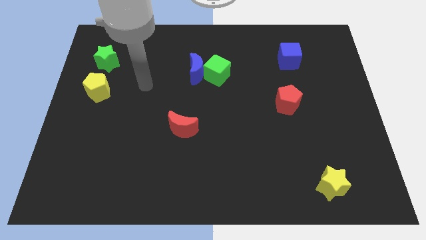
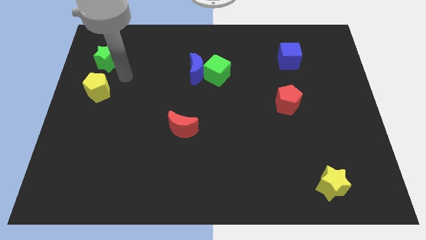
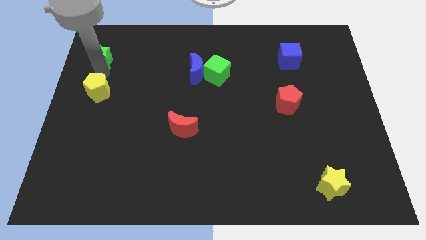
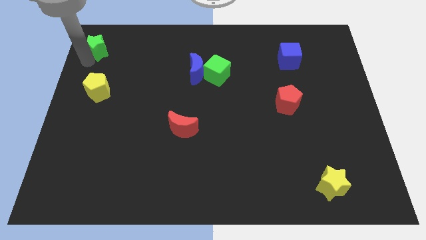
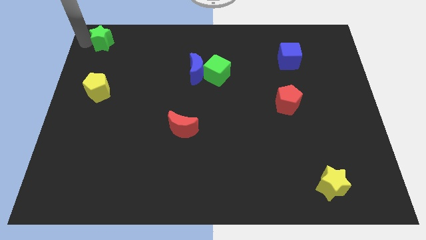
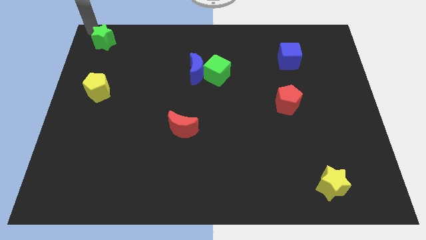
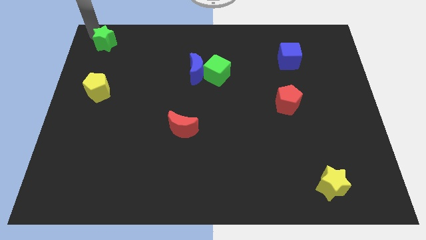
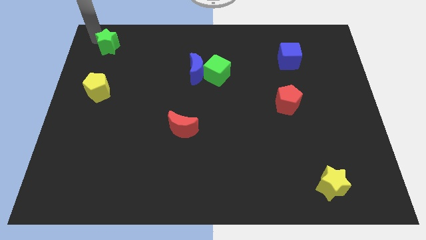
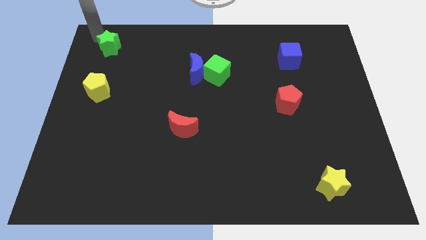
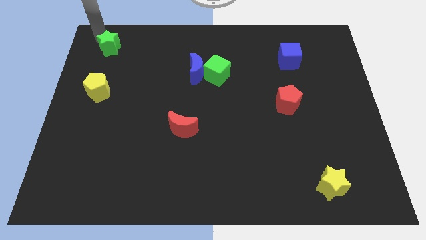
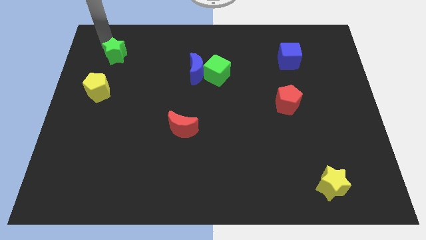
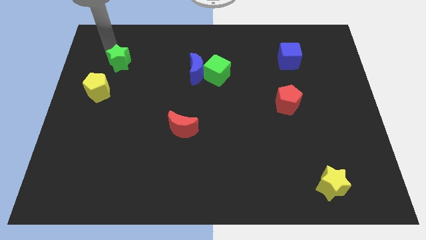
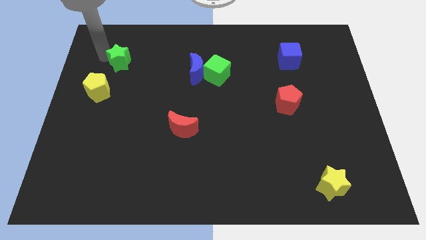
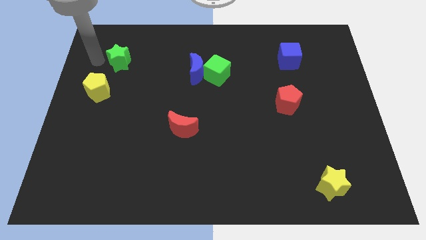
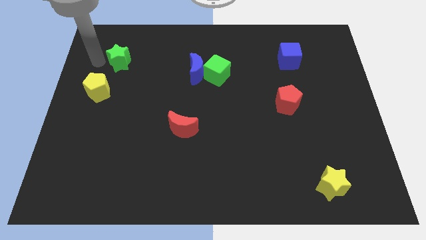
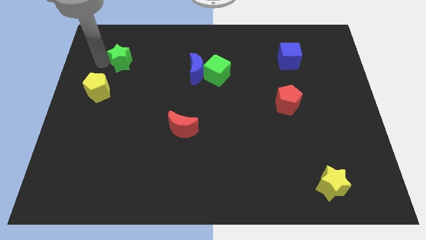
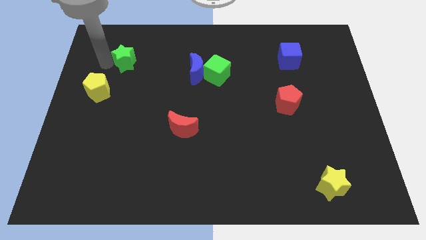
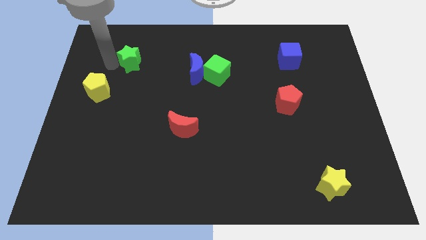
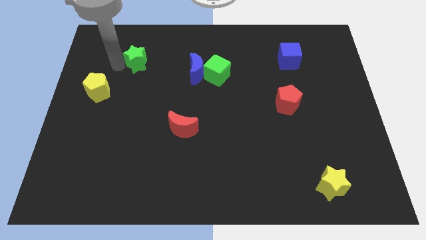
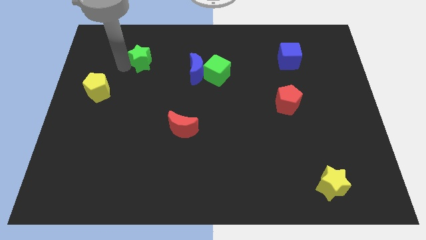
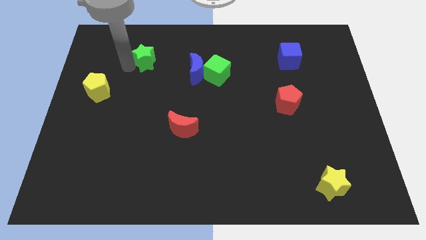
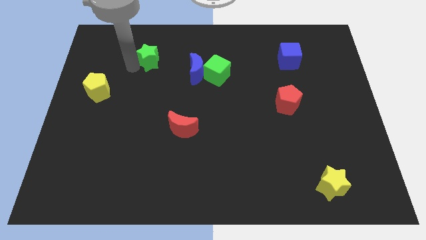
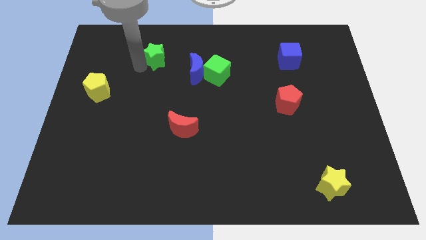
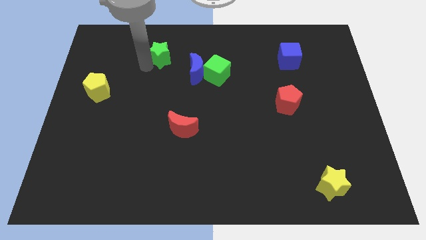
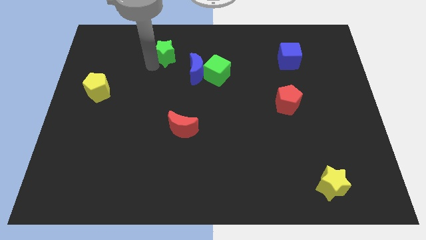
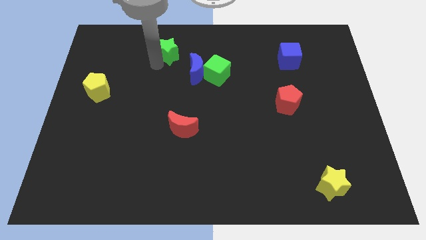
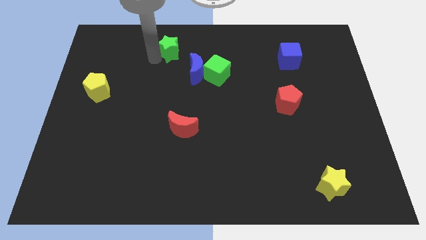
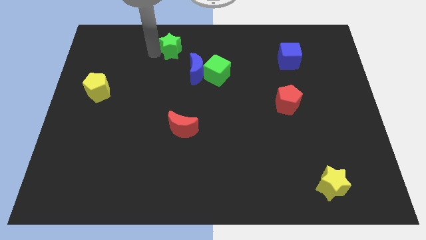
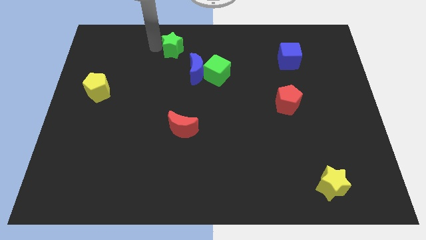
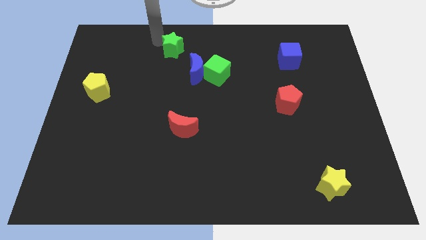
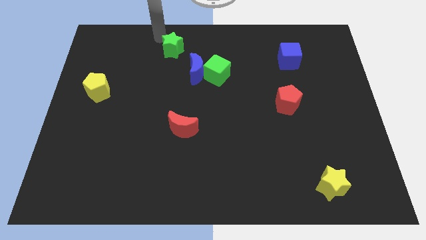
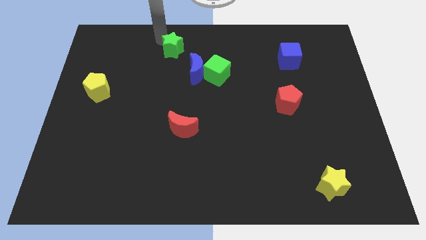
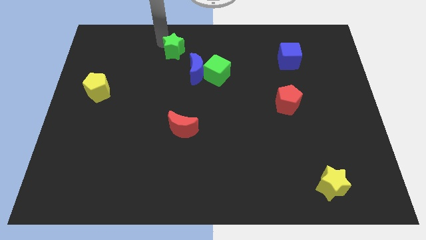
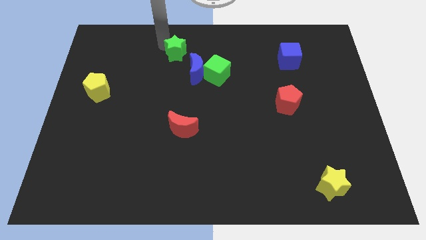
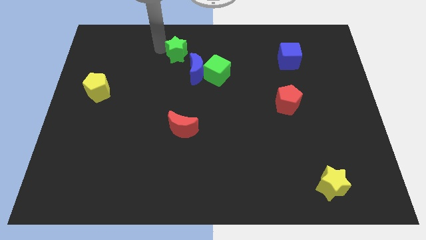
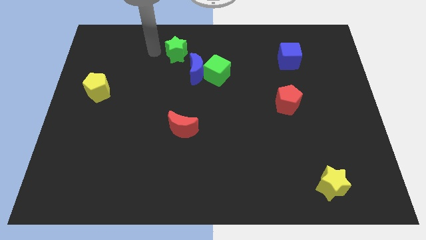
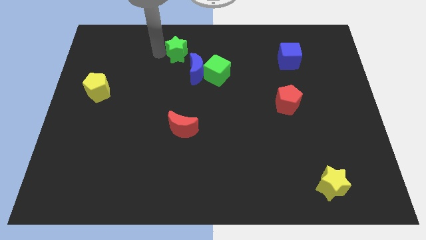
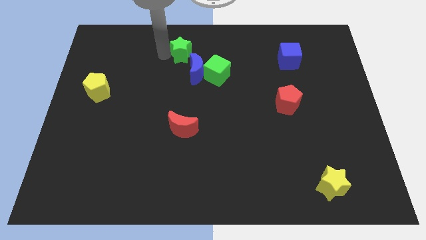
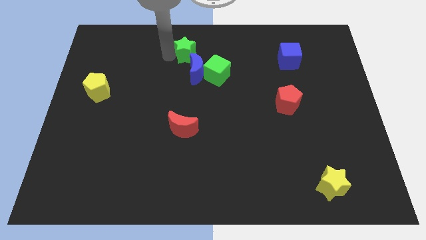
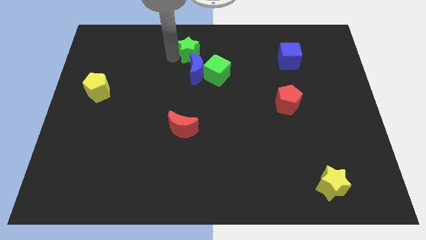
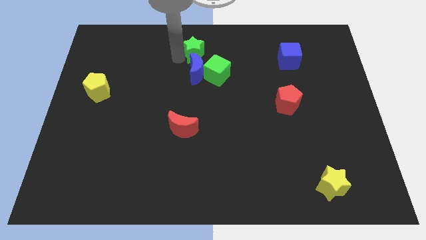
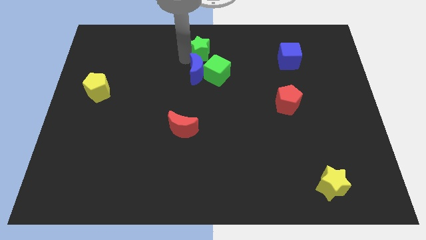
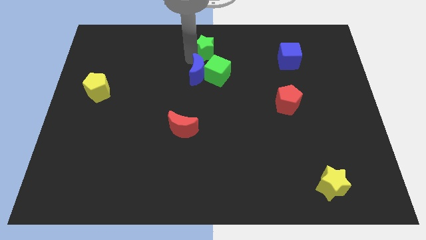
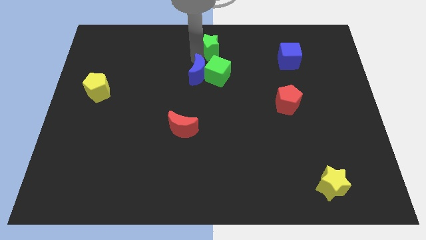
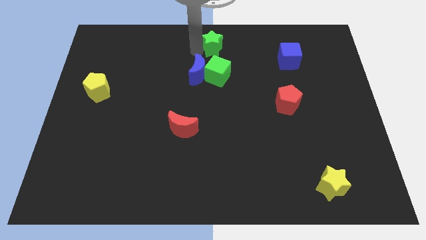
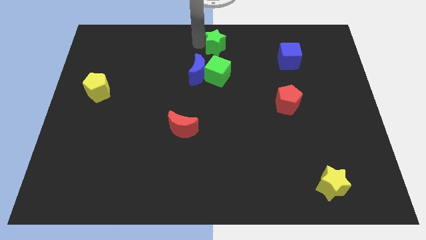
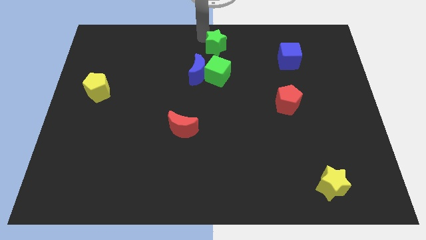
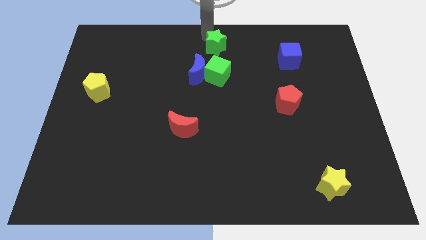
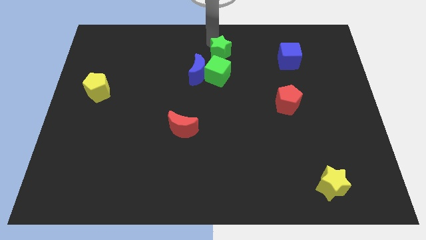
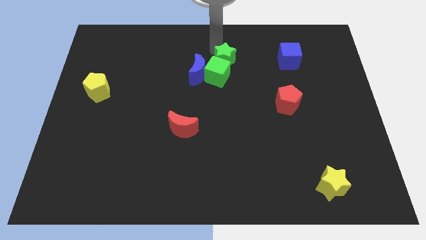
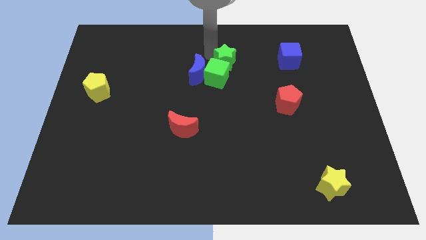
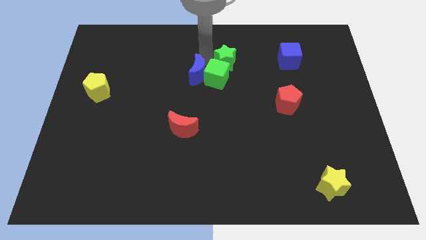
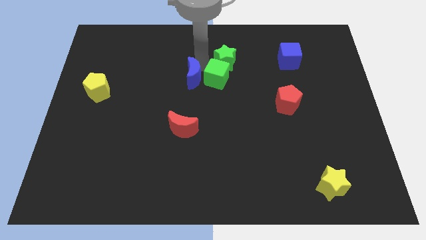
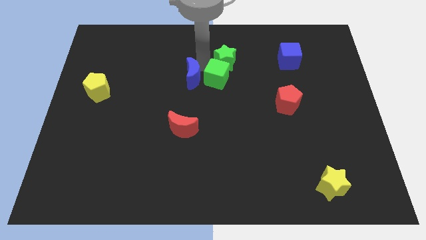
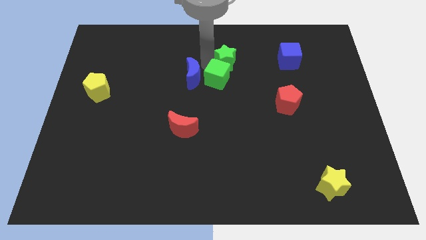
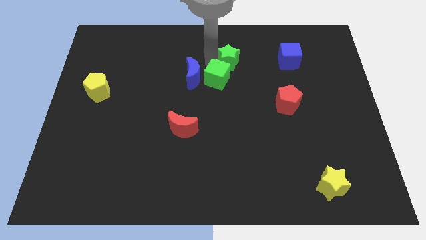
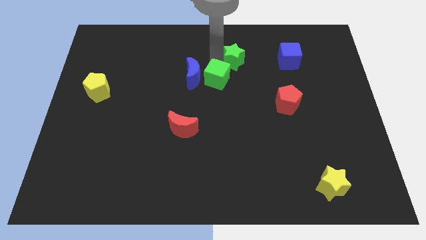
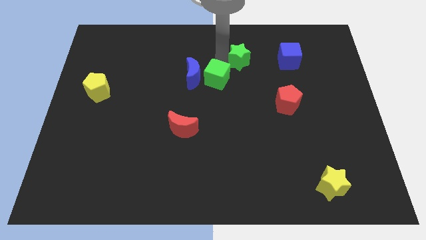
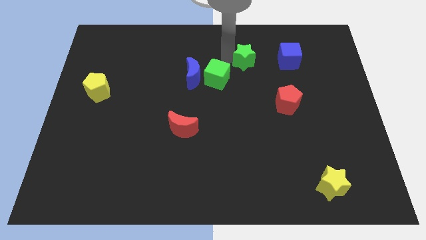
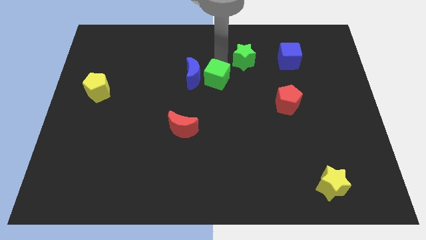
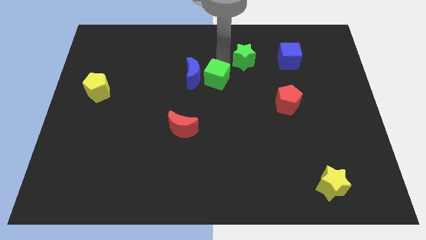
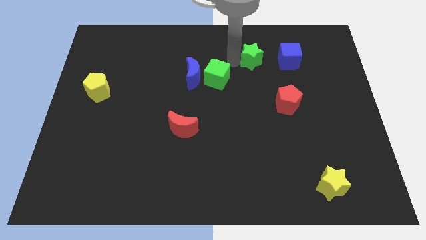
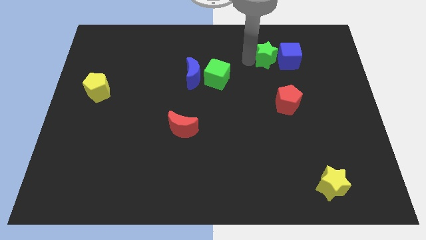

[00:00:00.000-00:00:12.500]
push the green star next to the blue cube

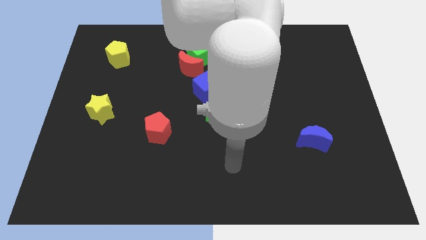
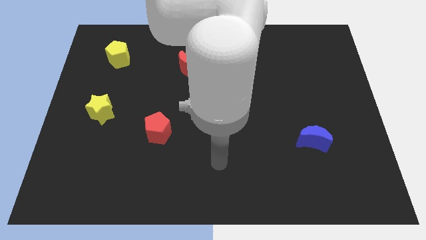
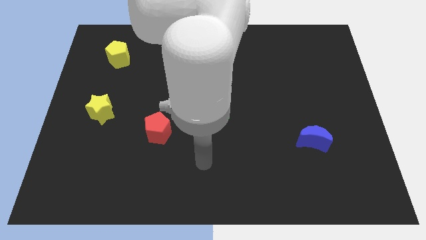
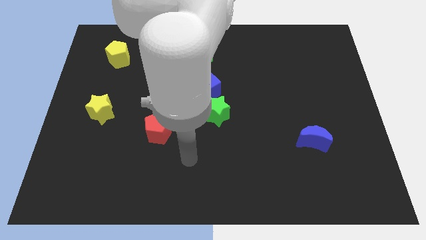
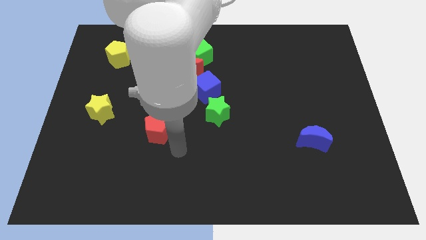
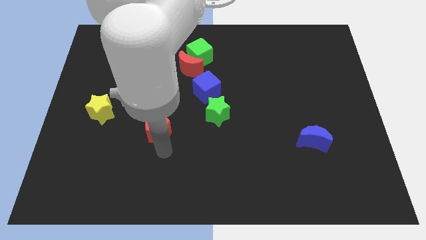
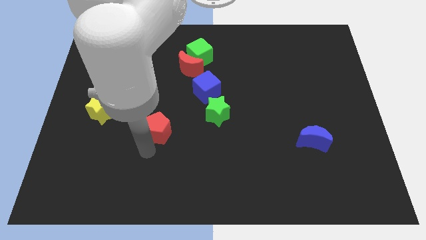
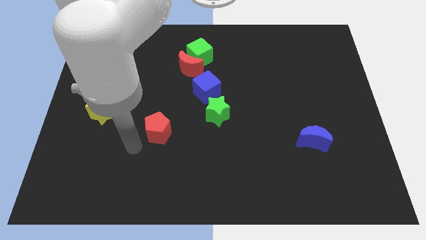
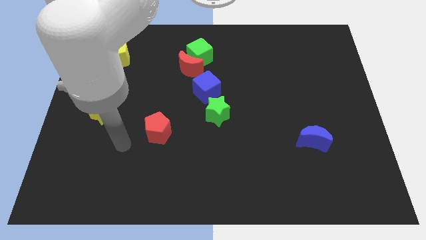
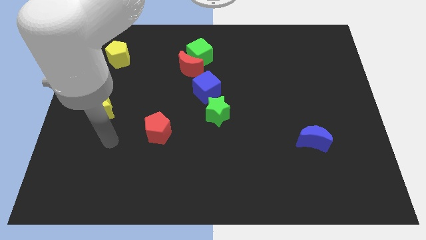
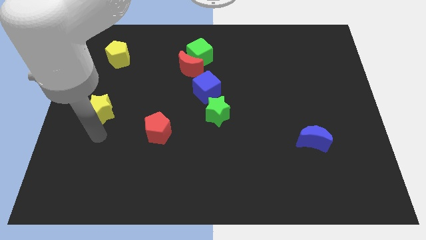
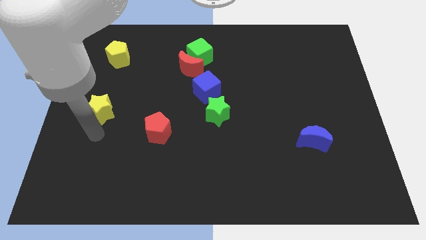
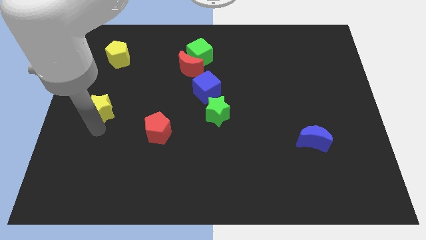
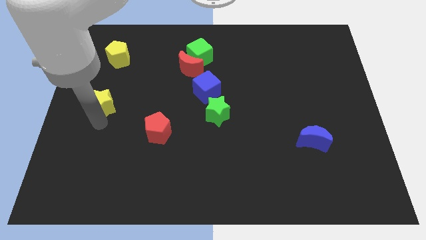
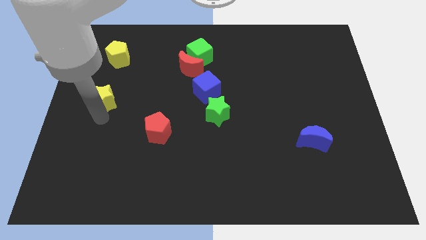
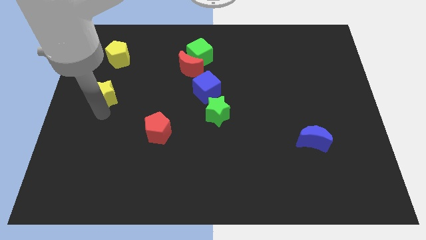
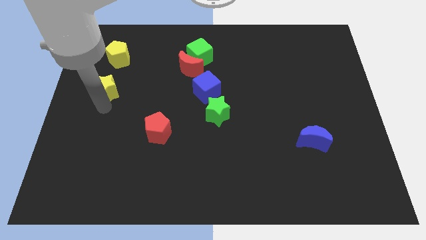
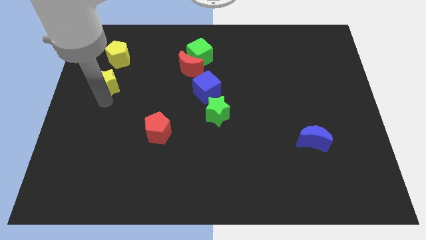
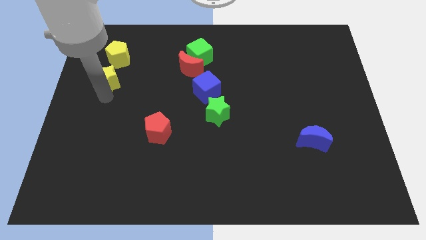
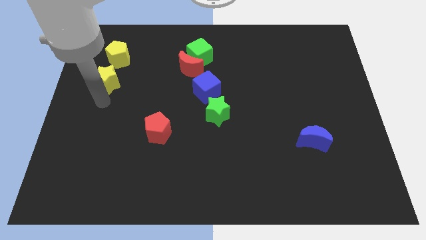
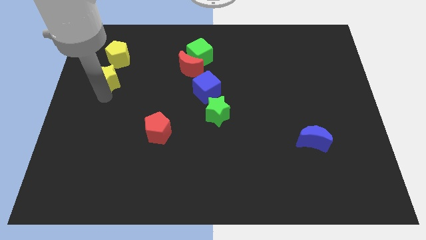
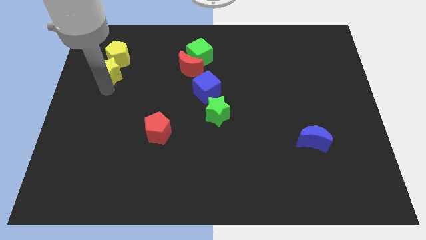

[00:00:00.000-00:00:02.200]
push the yellow star towards the yellow pentagon
